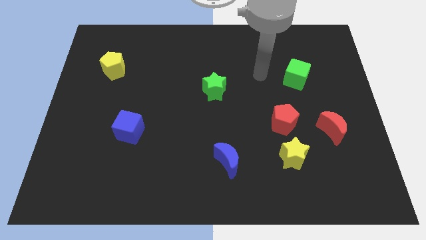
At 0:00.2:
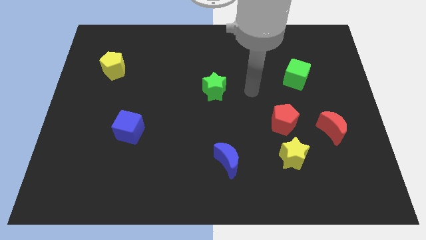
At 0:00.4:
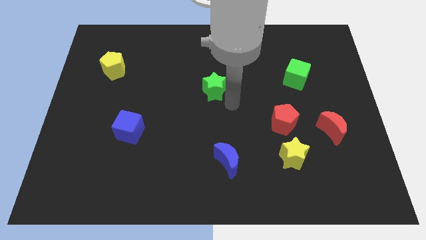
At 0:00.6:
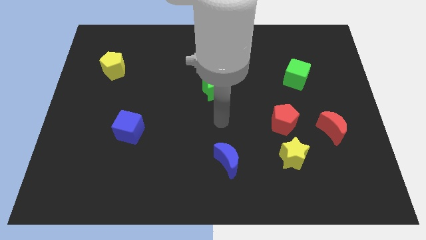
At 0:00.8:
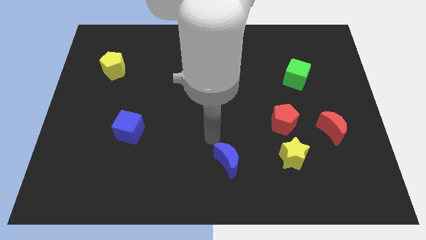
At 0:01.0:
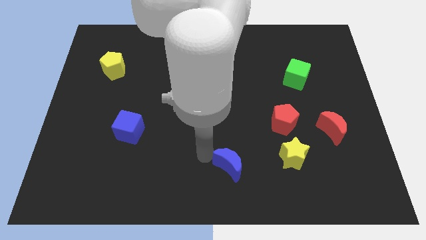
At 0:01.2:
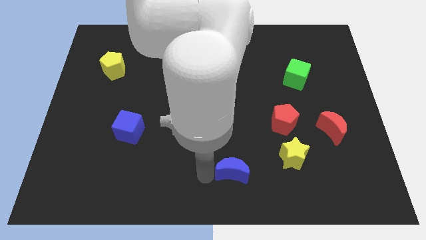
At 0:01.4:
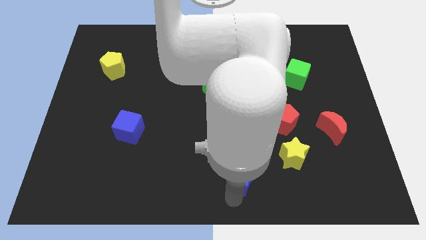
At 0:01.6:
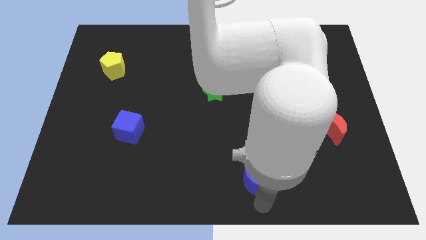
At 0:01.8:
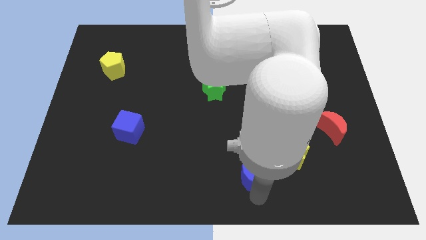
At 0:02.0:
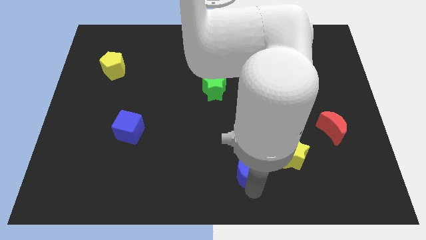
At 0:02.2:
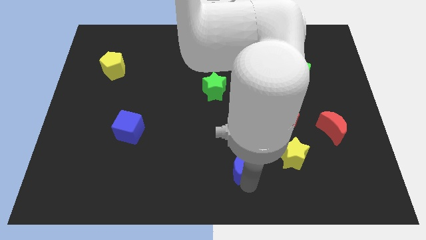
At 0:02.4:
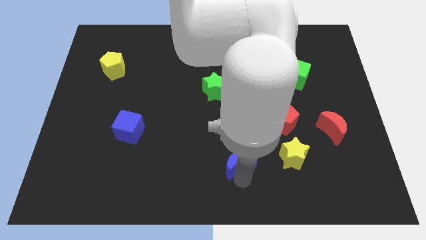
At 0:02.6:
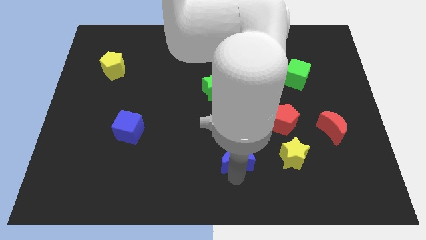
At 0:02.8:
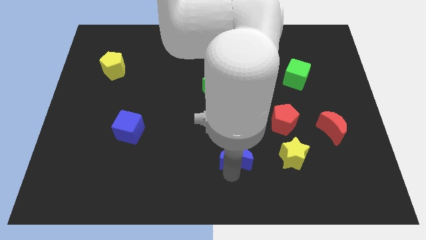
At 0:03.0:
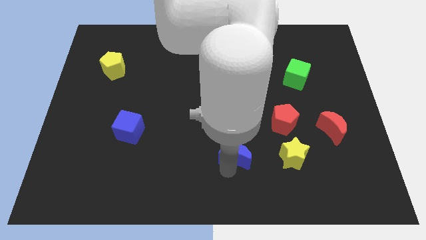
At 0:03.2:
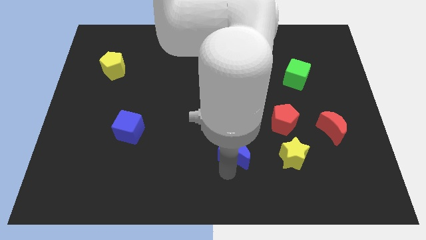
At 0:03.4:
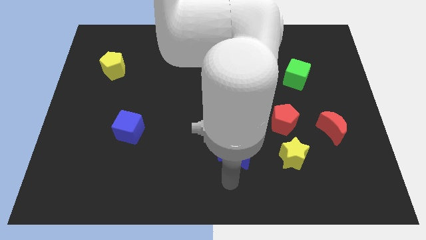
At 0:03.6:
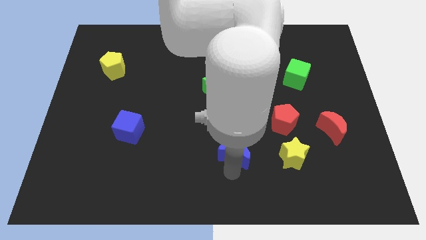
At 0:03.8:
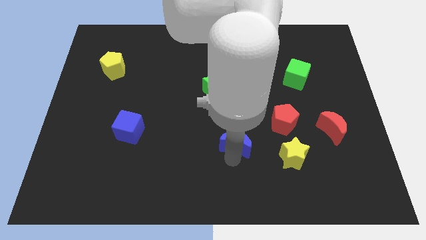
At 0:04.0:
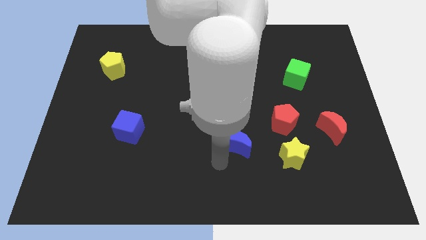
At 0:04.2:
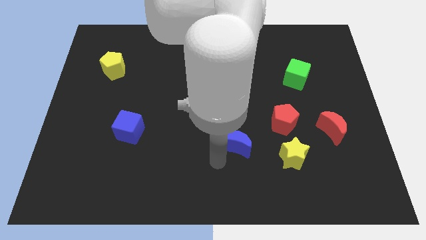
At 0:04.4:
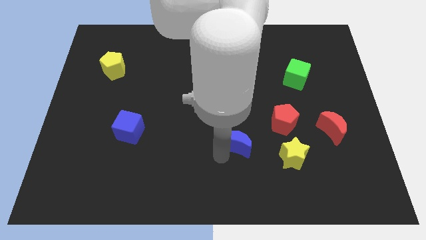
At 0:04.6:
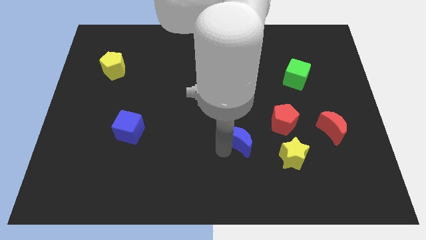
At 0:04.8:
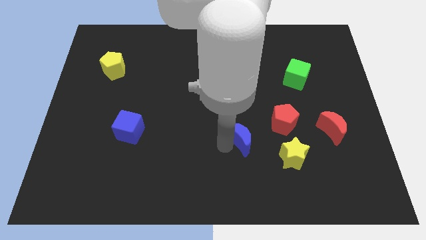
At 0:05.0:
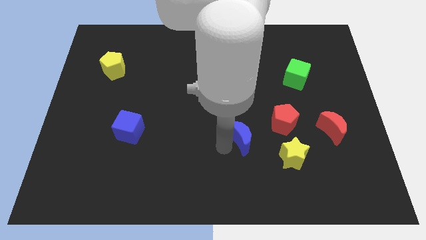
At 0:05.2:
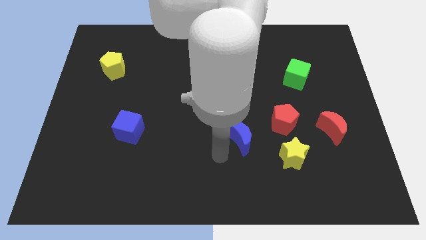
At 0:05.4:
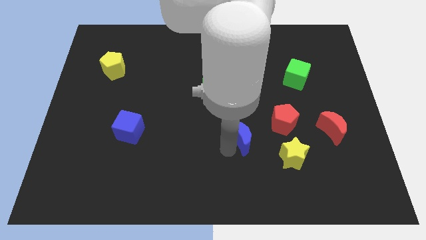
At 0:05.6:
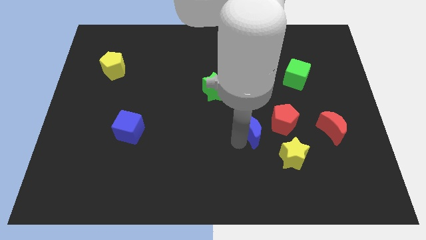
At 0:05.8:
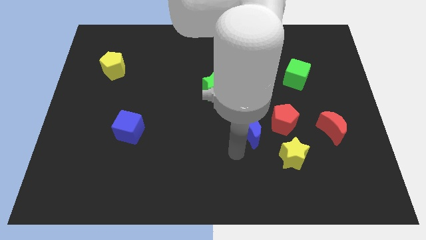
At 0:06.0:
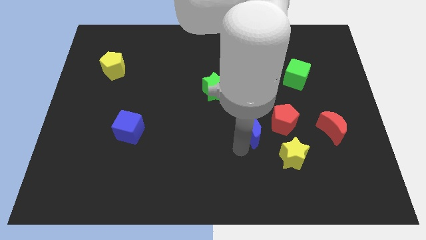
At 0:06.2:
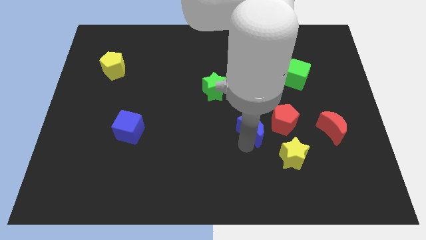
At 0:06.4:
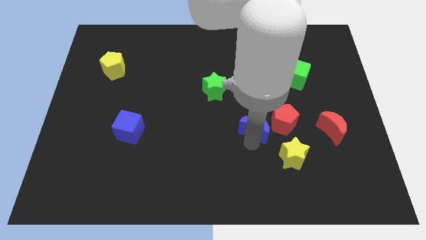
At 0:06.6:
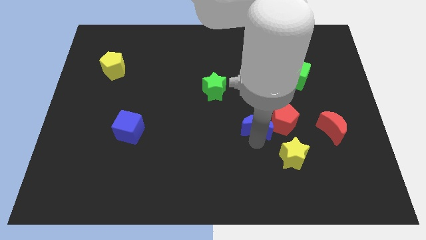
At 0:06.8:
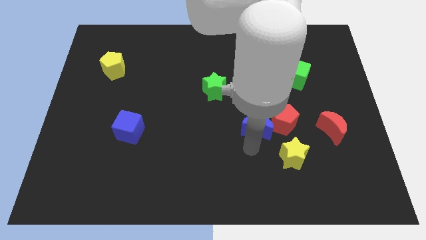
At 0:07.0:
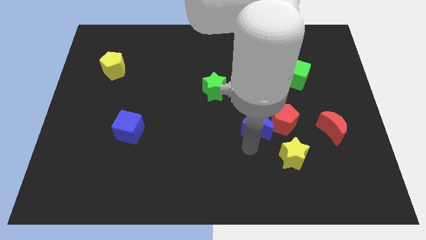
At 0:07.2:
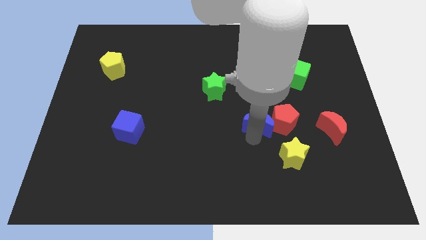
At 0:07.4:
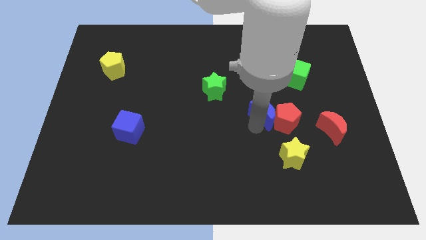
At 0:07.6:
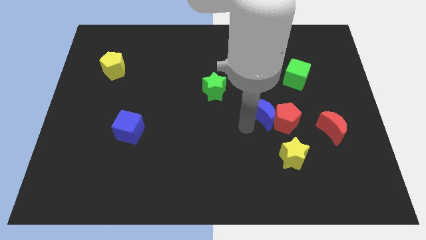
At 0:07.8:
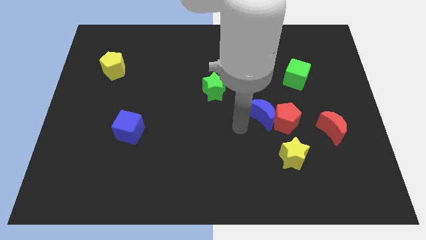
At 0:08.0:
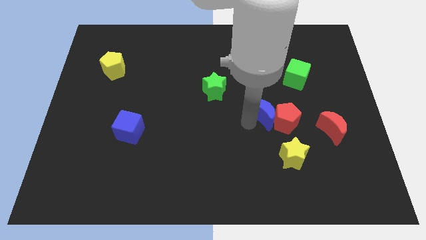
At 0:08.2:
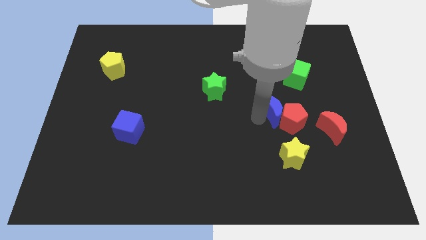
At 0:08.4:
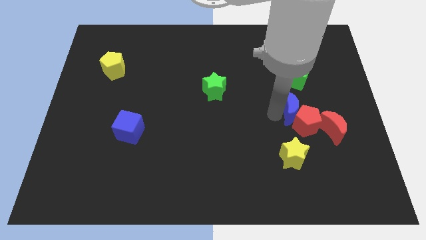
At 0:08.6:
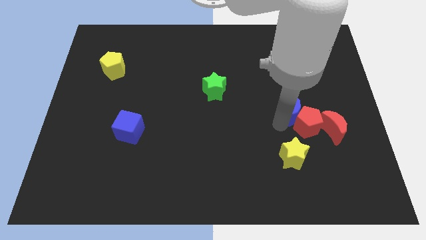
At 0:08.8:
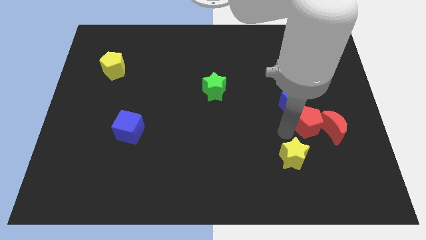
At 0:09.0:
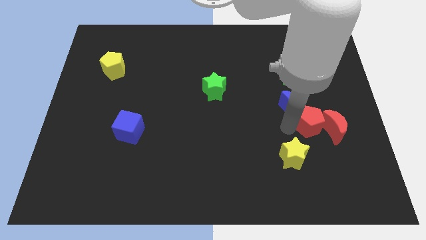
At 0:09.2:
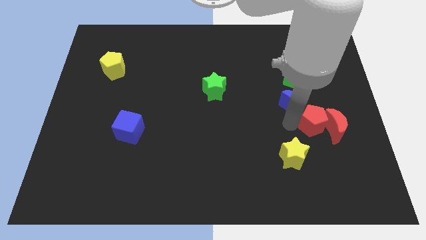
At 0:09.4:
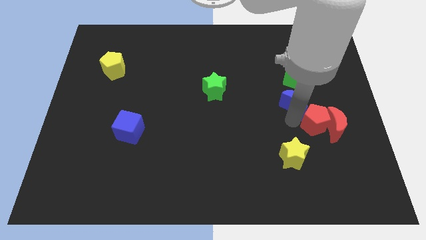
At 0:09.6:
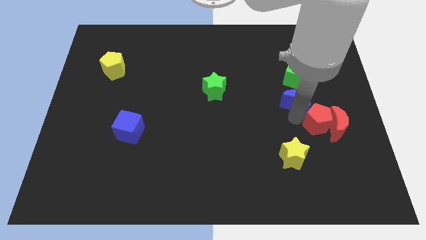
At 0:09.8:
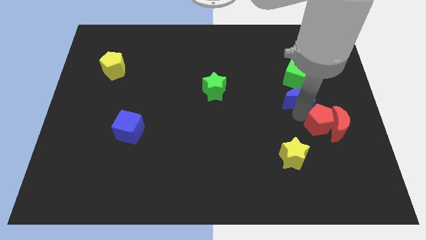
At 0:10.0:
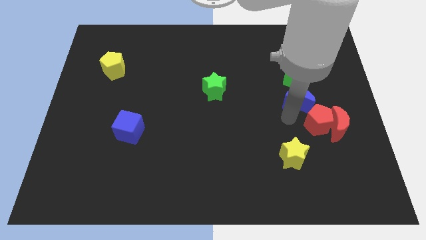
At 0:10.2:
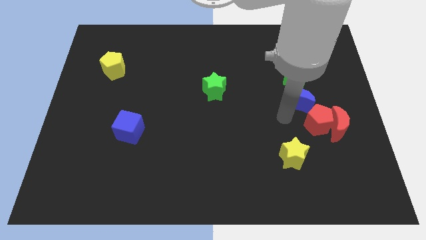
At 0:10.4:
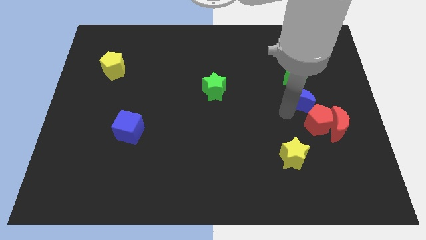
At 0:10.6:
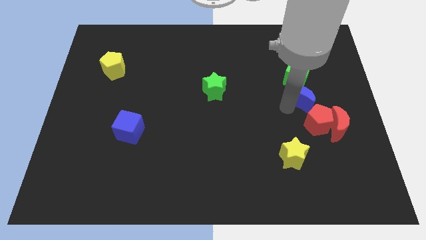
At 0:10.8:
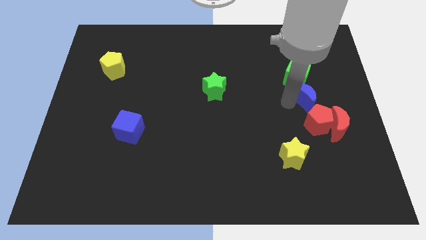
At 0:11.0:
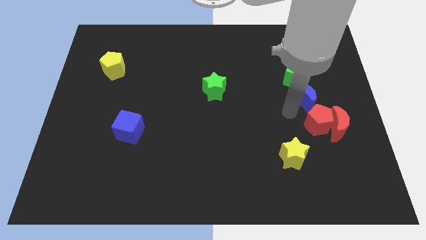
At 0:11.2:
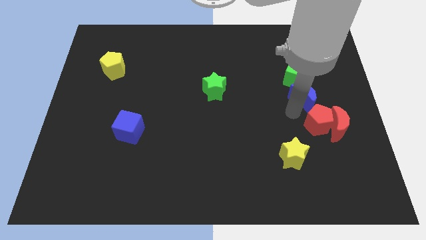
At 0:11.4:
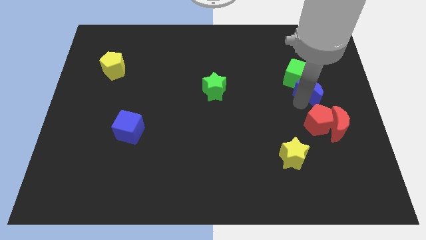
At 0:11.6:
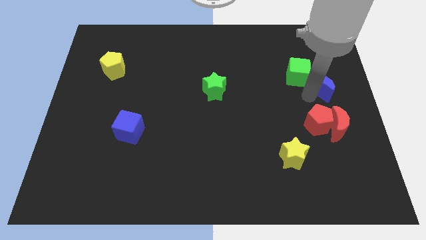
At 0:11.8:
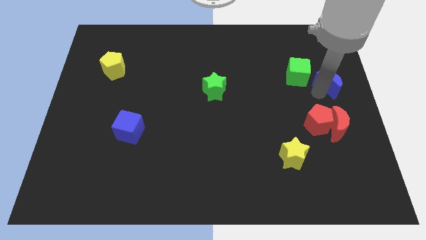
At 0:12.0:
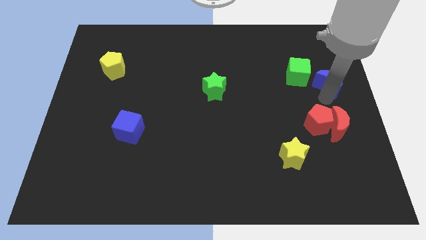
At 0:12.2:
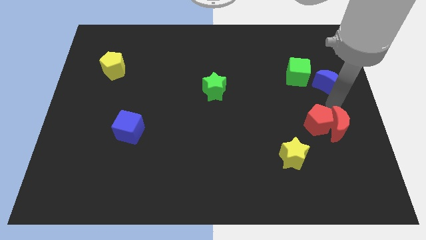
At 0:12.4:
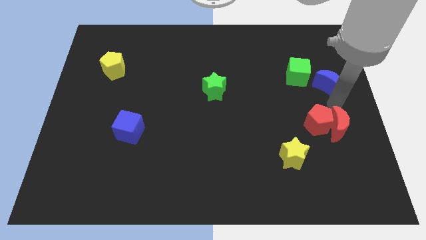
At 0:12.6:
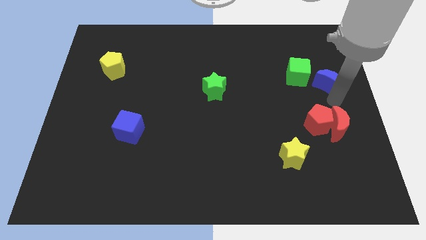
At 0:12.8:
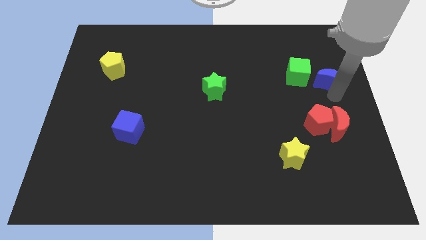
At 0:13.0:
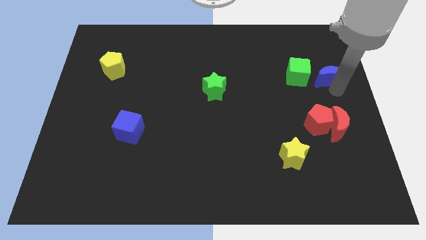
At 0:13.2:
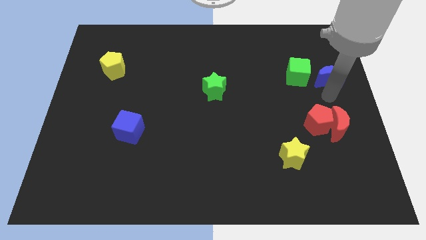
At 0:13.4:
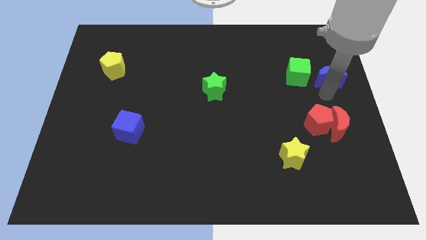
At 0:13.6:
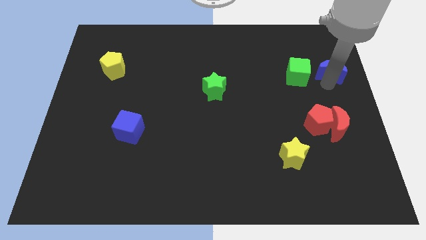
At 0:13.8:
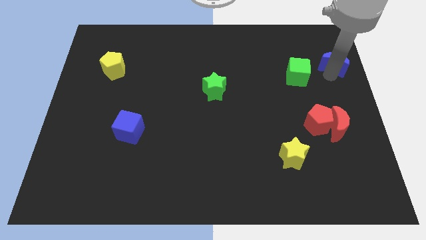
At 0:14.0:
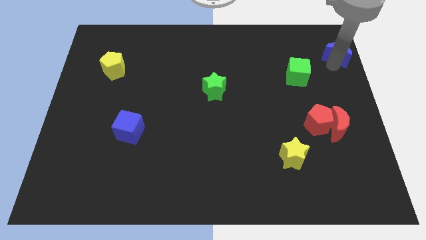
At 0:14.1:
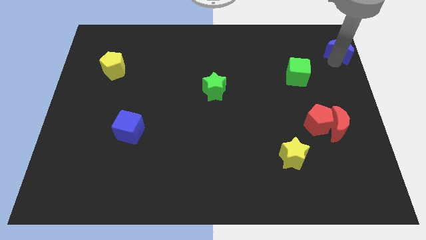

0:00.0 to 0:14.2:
slide the blue moon to the top right corner
